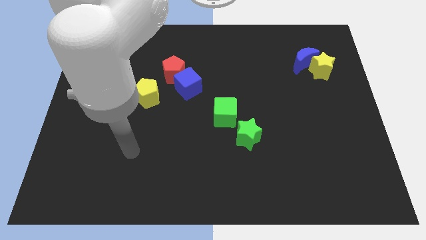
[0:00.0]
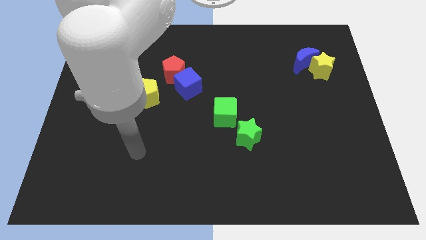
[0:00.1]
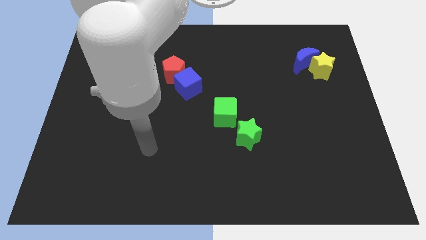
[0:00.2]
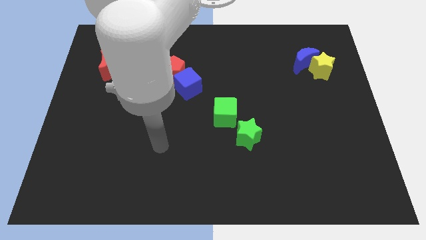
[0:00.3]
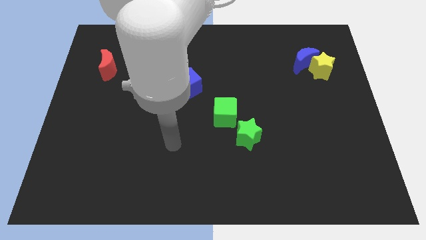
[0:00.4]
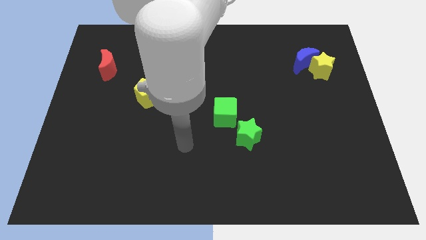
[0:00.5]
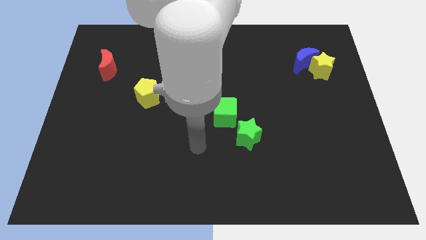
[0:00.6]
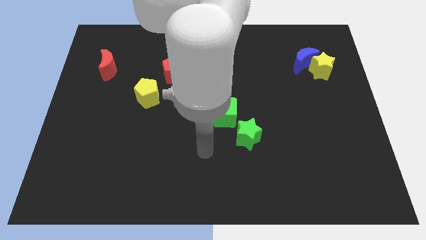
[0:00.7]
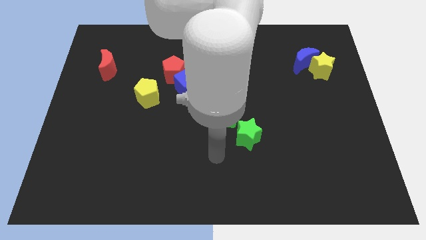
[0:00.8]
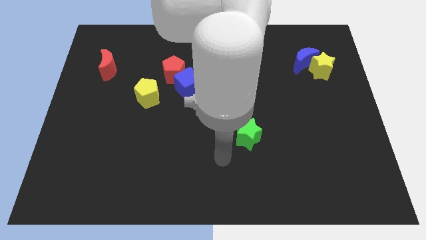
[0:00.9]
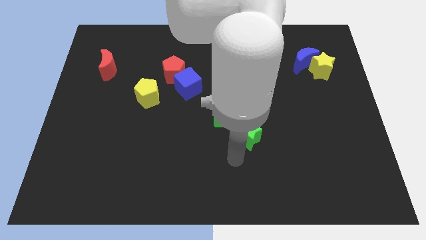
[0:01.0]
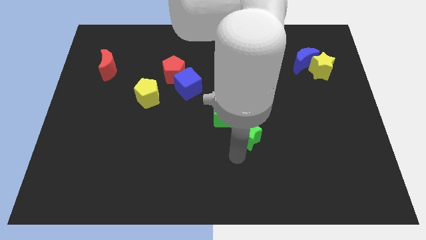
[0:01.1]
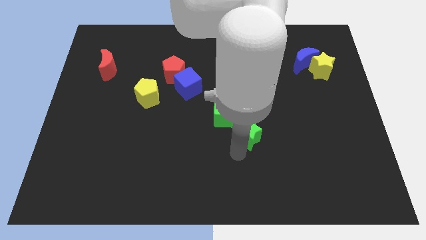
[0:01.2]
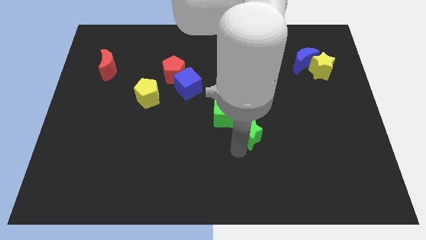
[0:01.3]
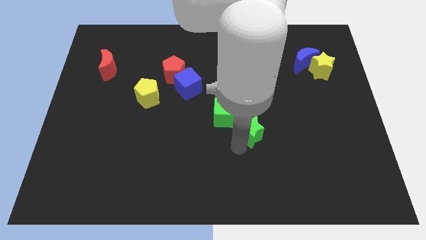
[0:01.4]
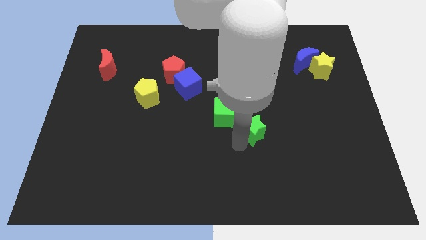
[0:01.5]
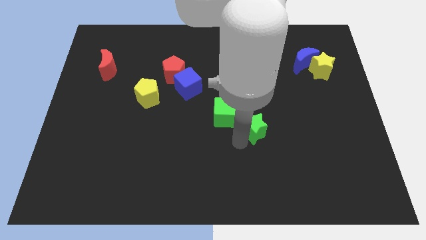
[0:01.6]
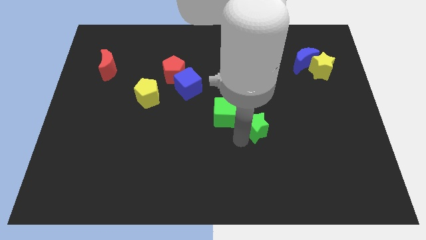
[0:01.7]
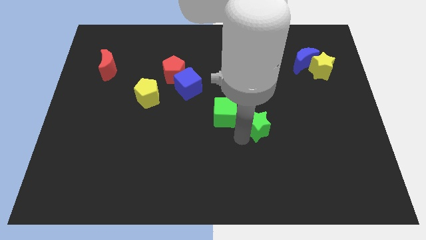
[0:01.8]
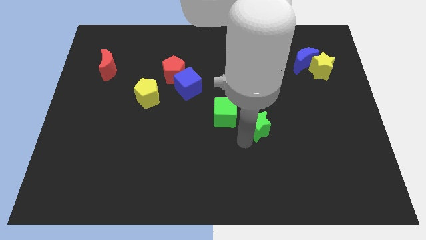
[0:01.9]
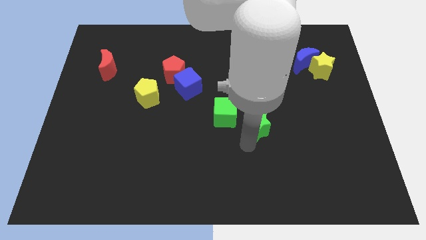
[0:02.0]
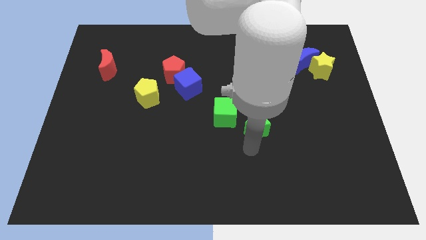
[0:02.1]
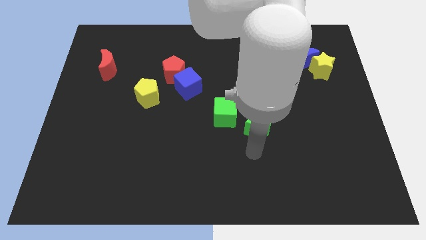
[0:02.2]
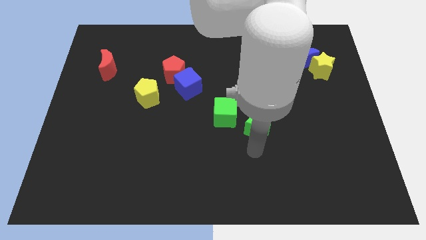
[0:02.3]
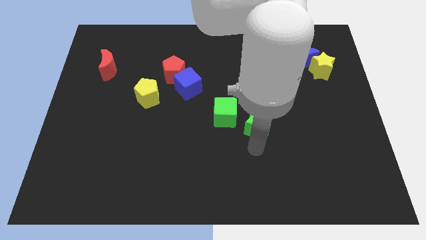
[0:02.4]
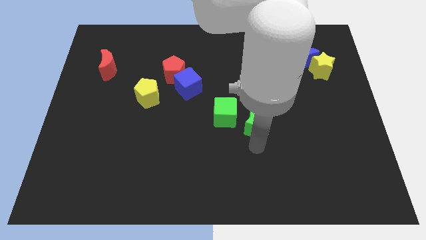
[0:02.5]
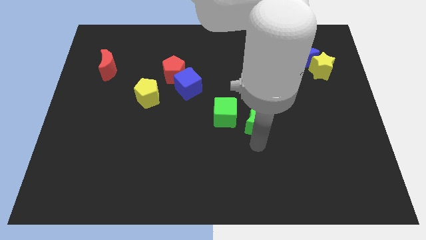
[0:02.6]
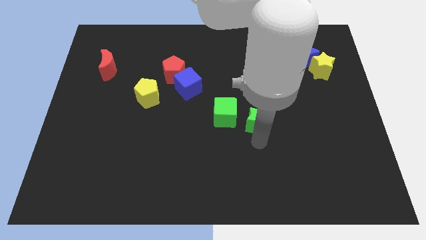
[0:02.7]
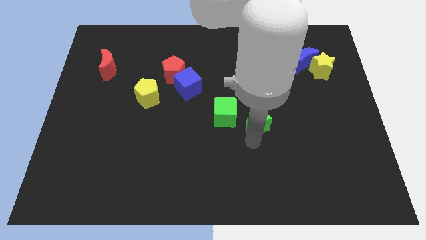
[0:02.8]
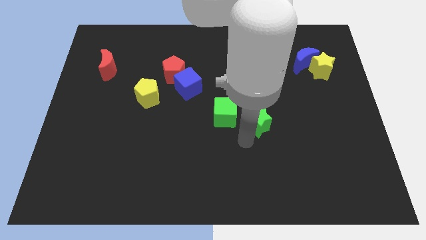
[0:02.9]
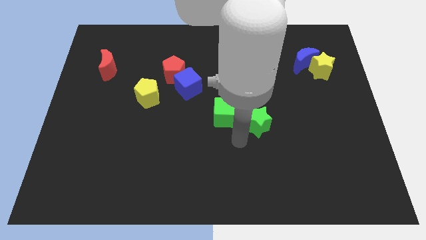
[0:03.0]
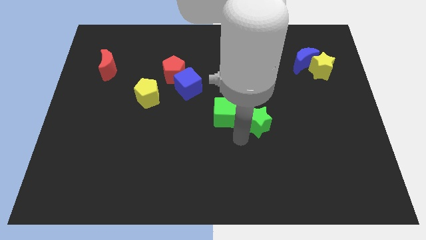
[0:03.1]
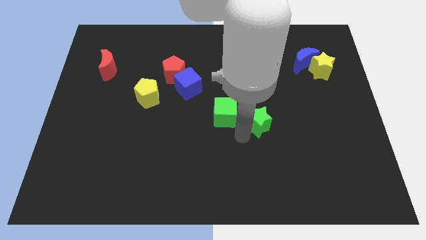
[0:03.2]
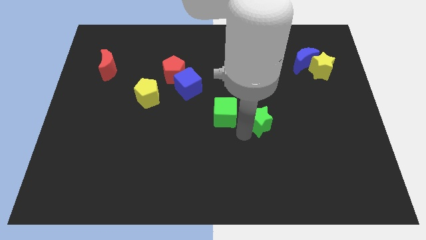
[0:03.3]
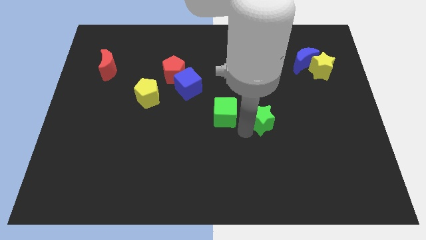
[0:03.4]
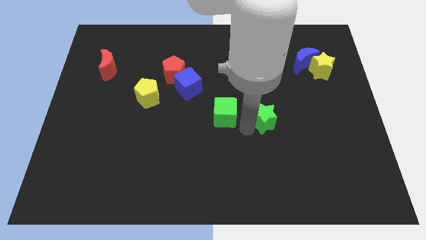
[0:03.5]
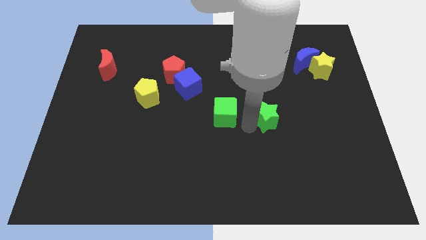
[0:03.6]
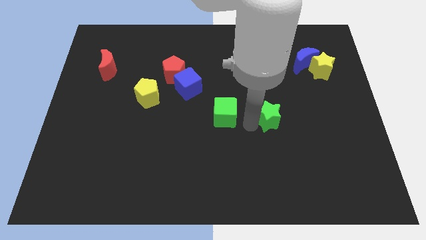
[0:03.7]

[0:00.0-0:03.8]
move the green star upwards and to the right a little

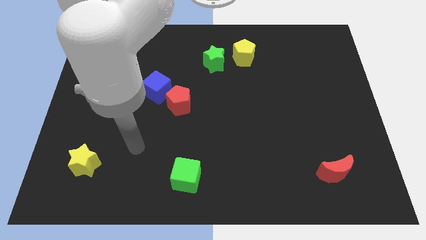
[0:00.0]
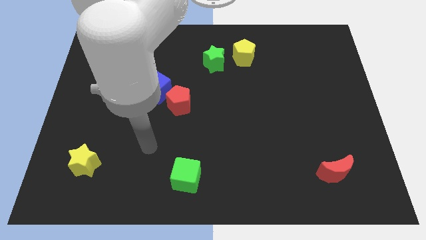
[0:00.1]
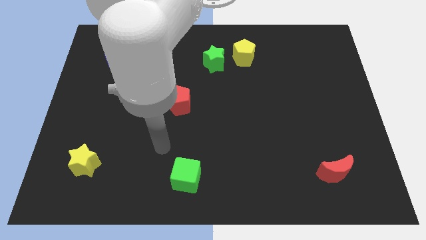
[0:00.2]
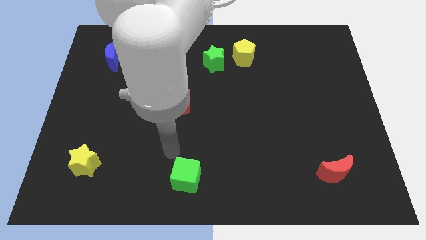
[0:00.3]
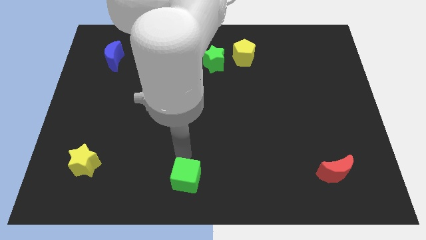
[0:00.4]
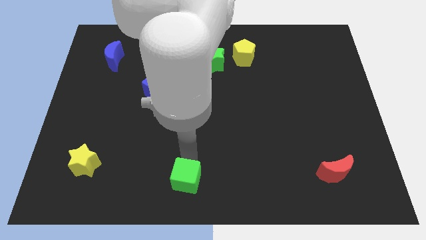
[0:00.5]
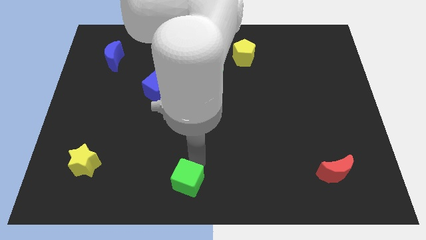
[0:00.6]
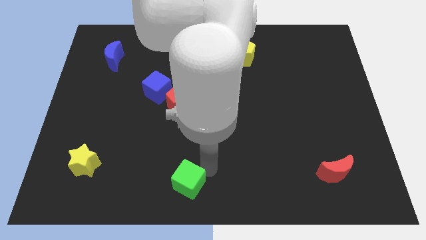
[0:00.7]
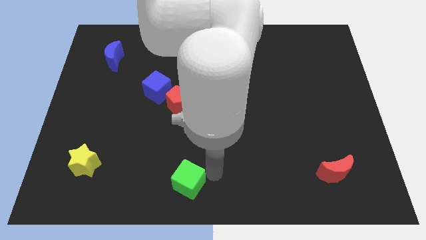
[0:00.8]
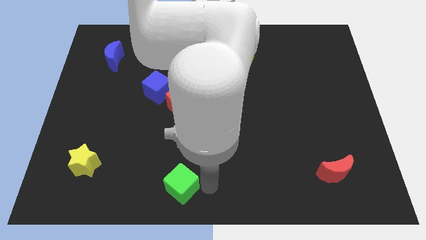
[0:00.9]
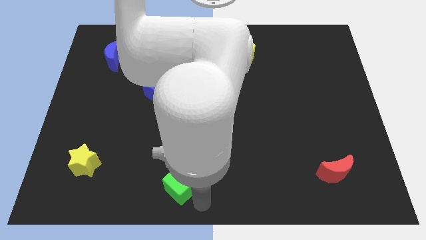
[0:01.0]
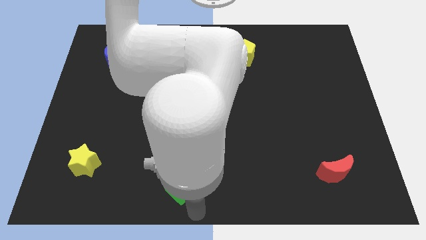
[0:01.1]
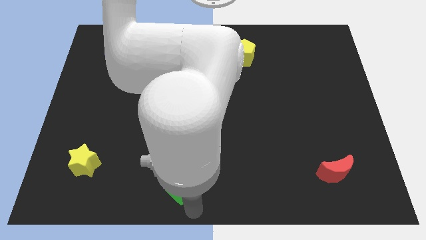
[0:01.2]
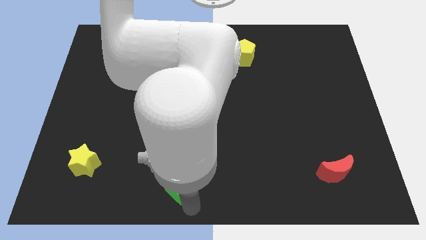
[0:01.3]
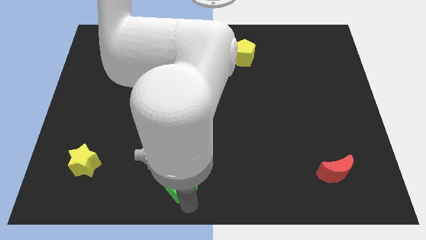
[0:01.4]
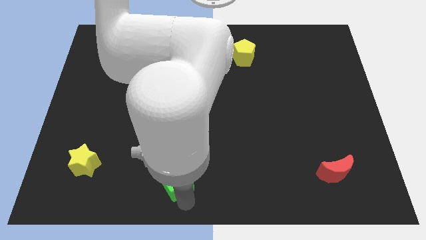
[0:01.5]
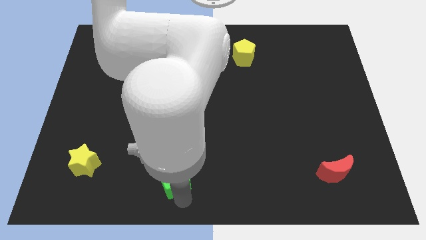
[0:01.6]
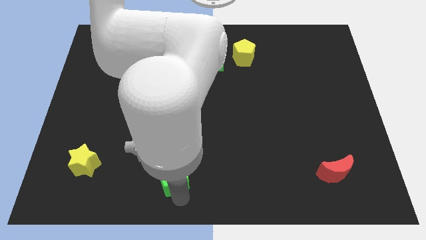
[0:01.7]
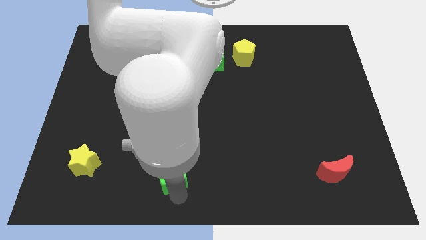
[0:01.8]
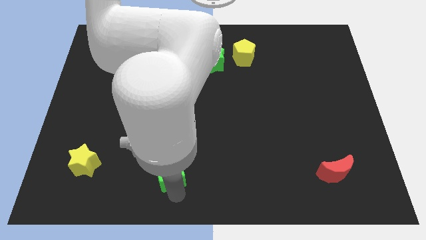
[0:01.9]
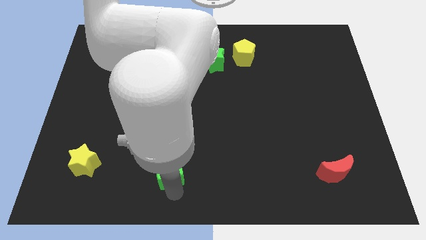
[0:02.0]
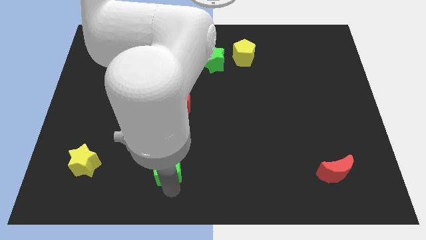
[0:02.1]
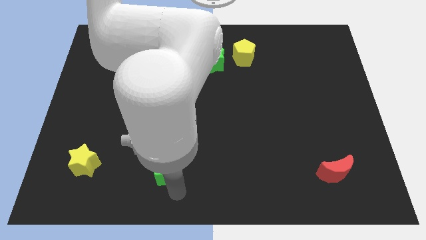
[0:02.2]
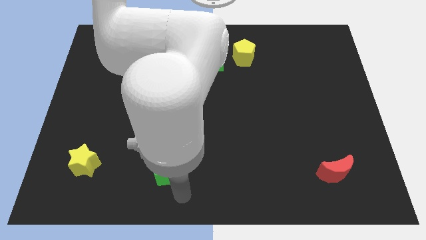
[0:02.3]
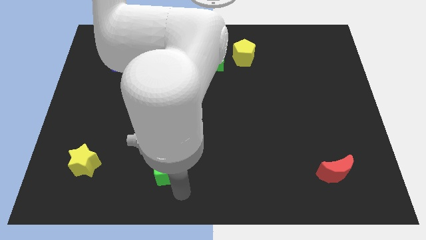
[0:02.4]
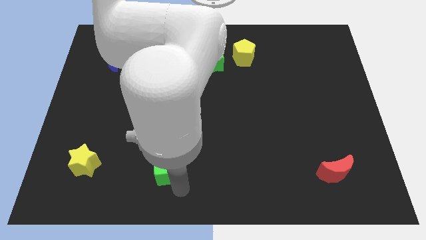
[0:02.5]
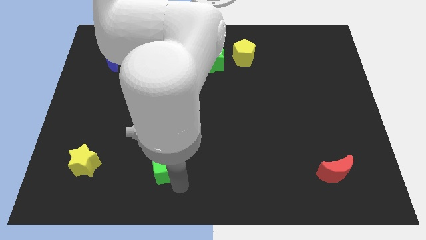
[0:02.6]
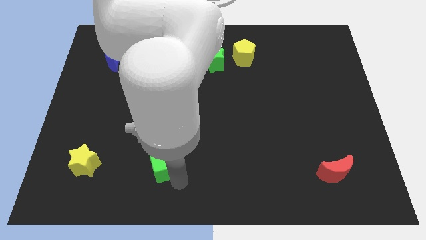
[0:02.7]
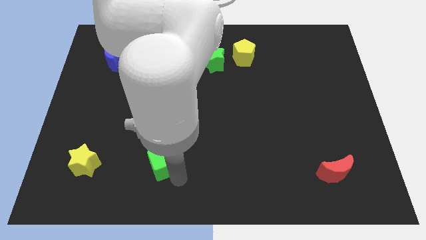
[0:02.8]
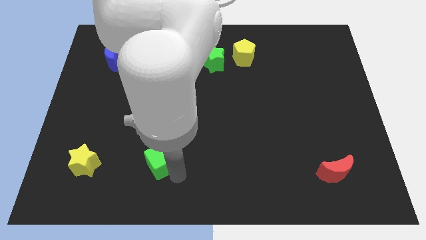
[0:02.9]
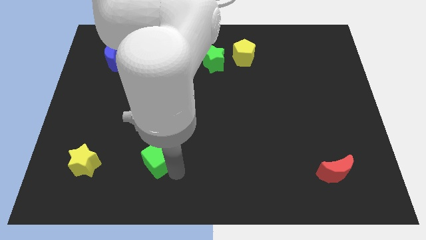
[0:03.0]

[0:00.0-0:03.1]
slightly move the green cube up and to the left

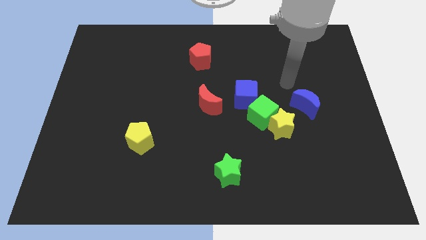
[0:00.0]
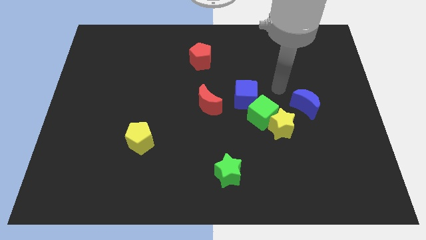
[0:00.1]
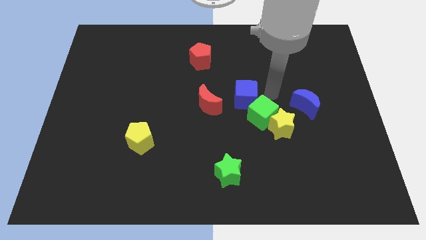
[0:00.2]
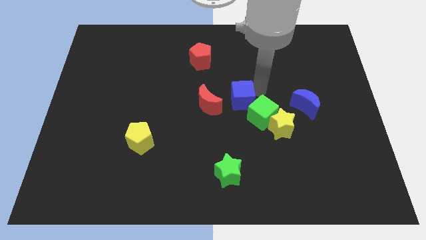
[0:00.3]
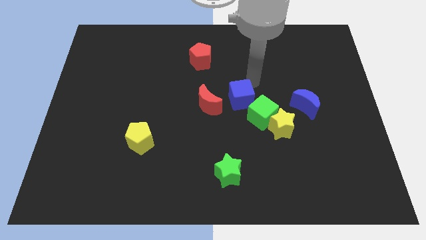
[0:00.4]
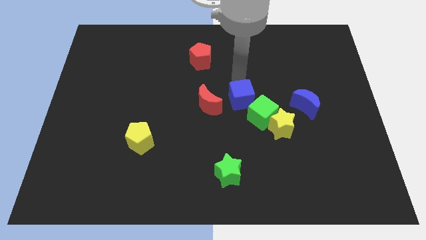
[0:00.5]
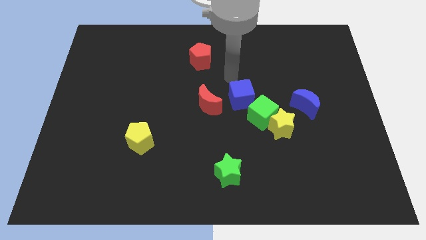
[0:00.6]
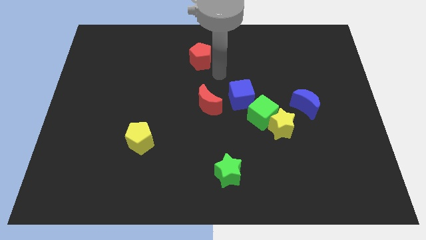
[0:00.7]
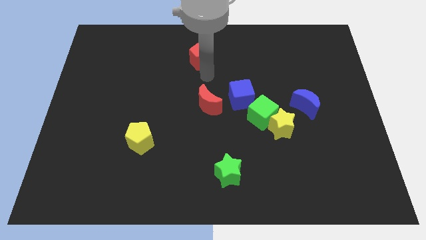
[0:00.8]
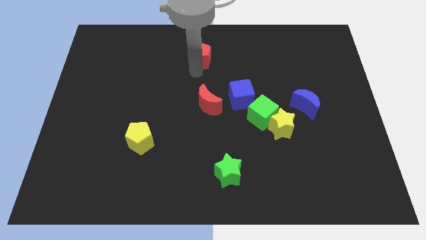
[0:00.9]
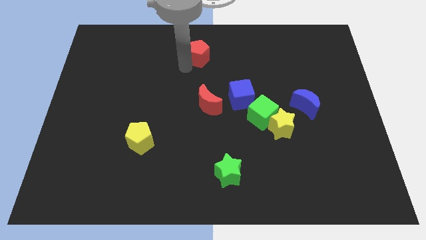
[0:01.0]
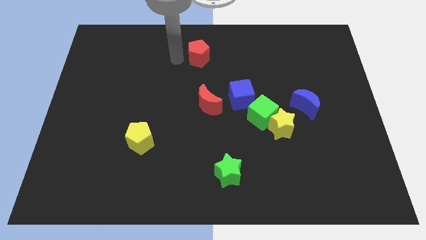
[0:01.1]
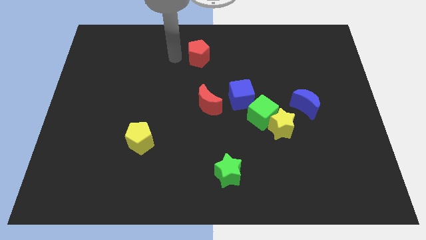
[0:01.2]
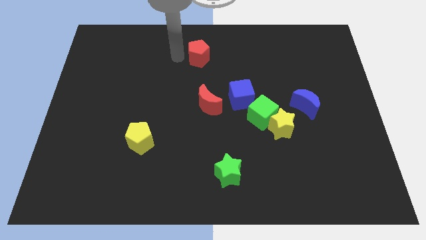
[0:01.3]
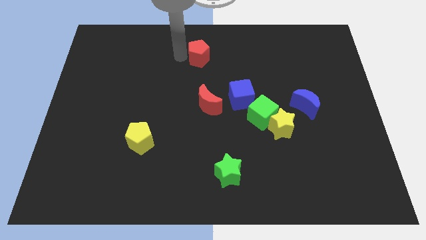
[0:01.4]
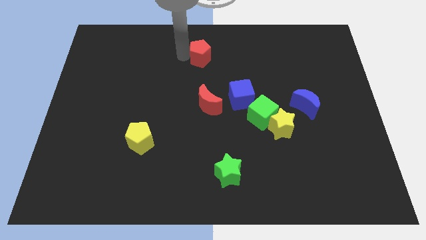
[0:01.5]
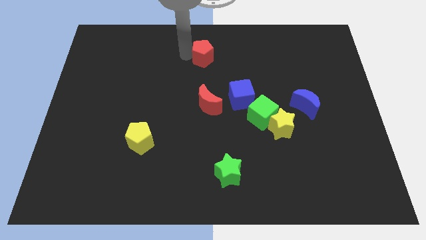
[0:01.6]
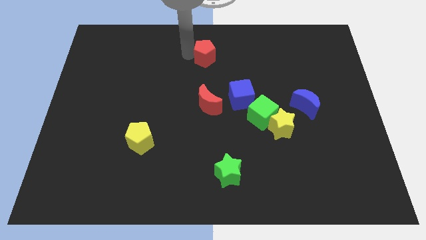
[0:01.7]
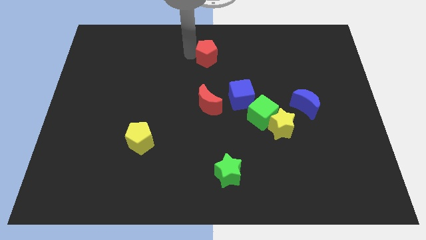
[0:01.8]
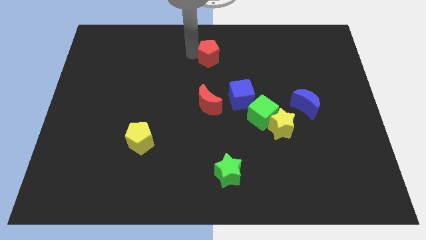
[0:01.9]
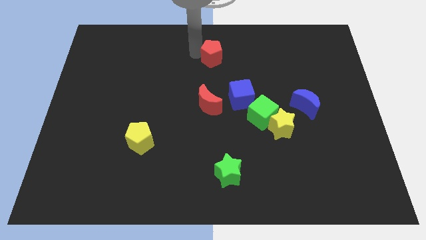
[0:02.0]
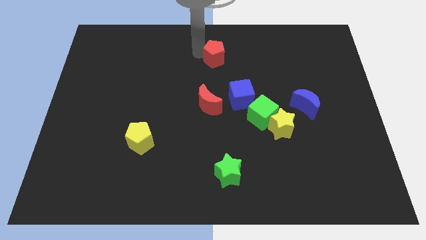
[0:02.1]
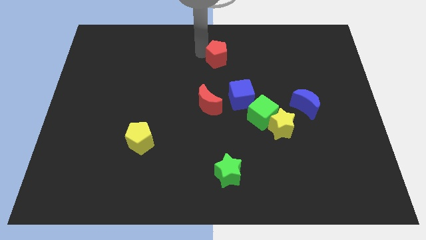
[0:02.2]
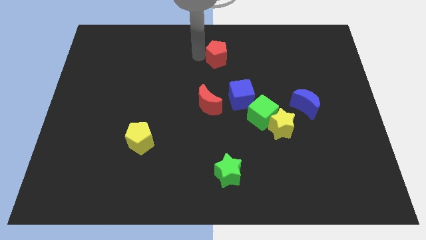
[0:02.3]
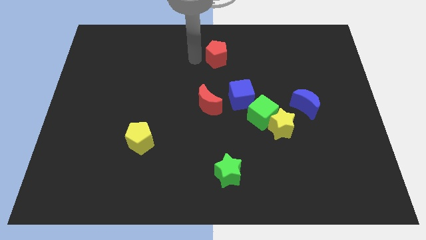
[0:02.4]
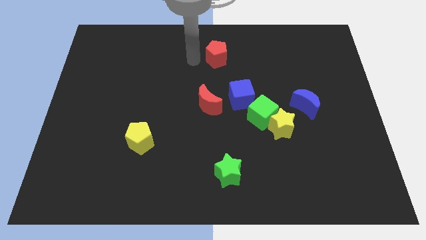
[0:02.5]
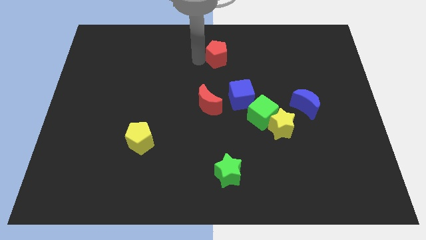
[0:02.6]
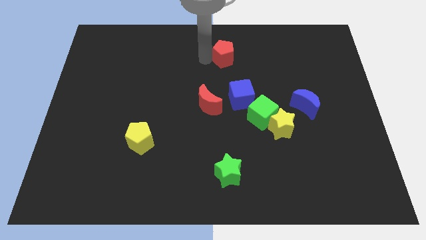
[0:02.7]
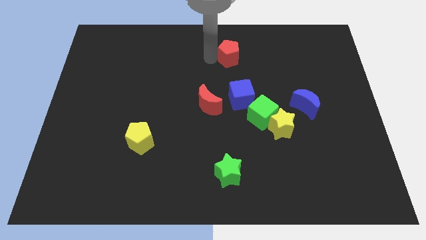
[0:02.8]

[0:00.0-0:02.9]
slide the red pentagon right a little
